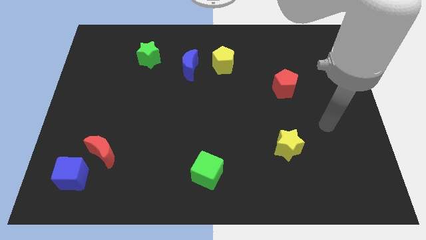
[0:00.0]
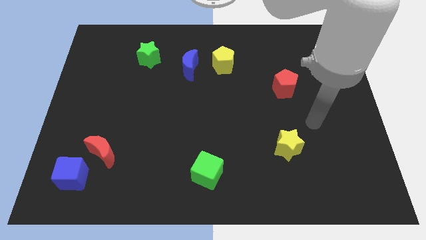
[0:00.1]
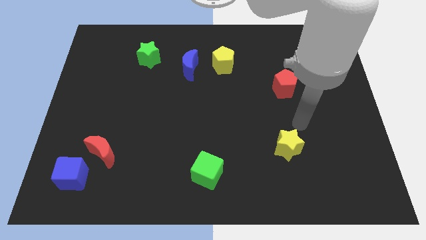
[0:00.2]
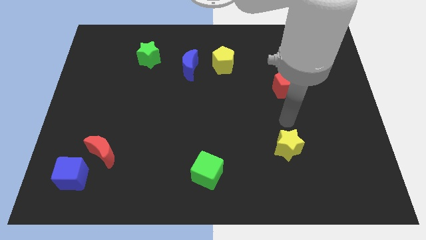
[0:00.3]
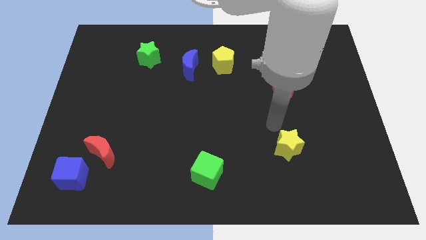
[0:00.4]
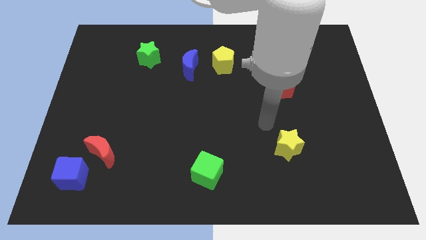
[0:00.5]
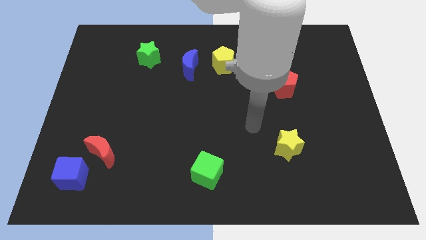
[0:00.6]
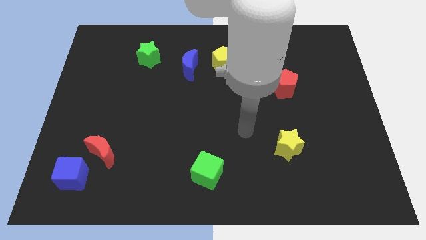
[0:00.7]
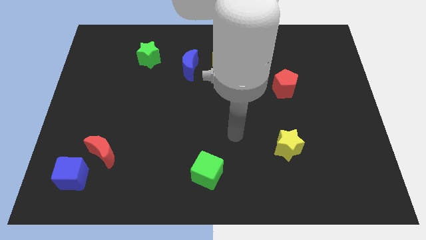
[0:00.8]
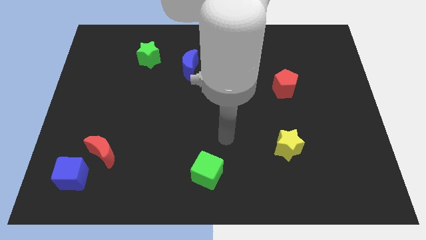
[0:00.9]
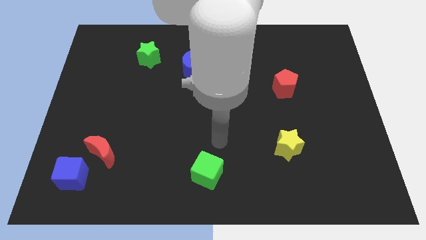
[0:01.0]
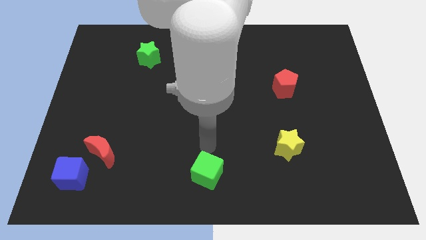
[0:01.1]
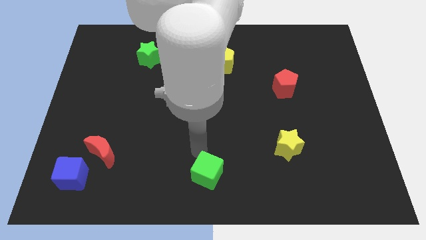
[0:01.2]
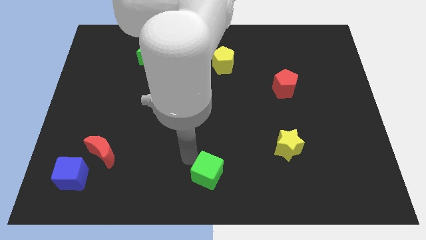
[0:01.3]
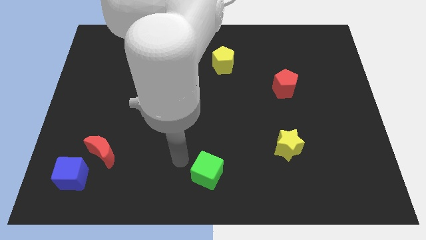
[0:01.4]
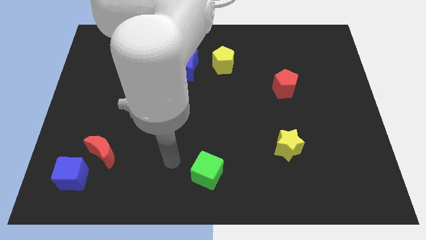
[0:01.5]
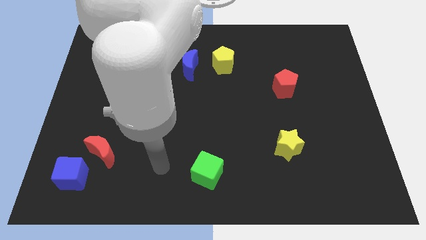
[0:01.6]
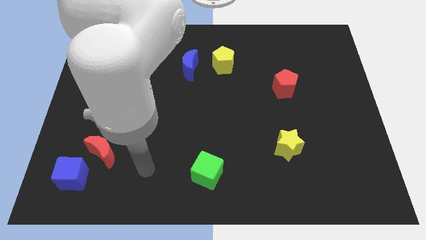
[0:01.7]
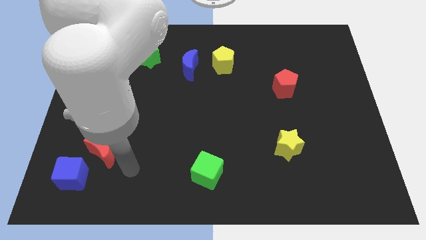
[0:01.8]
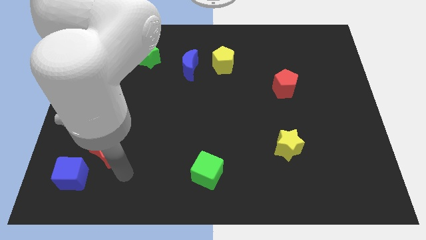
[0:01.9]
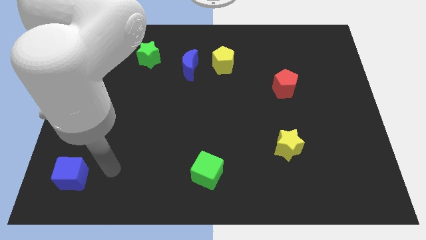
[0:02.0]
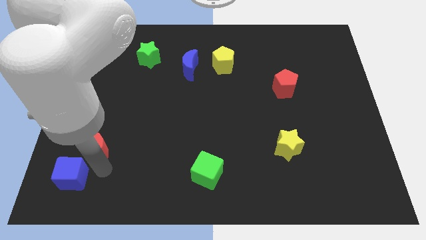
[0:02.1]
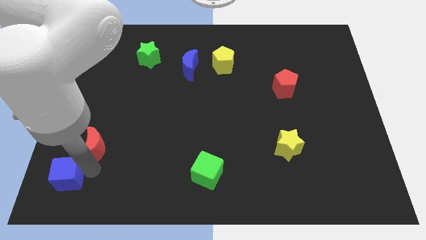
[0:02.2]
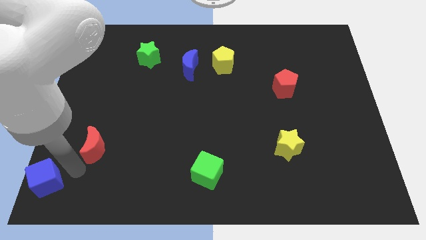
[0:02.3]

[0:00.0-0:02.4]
separate the red moon from the blue cube

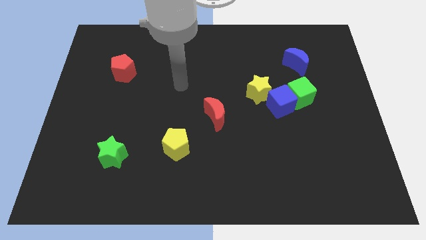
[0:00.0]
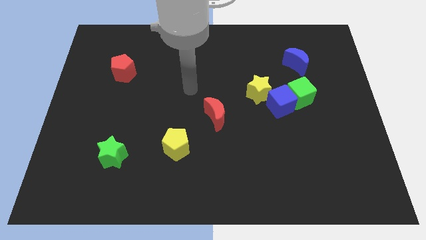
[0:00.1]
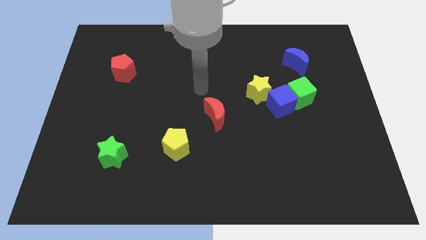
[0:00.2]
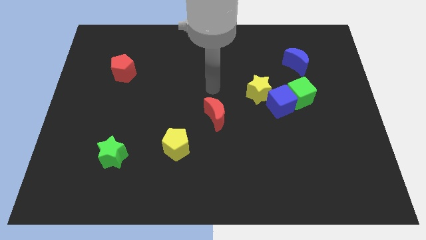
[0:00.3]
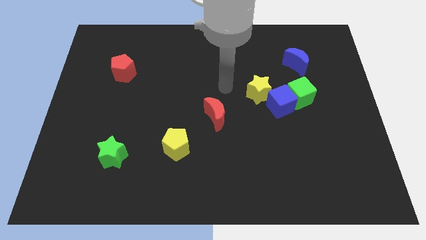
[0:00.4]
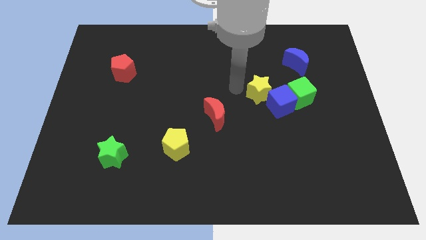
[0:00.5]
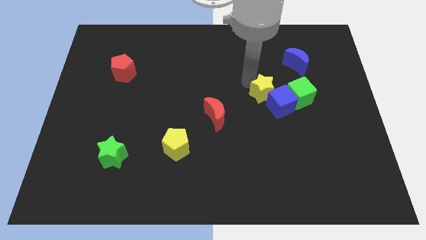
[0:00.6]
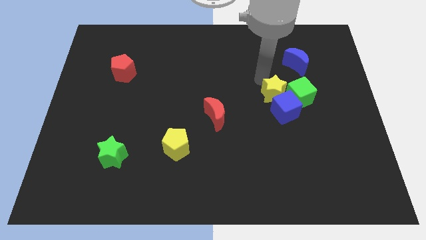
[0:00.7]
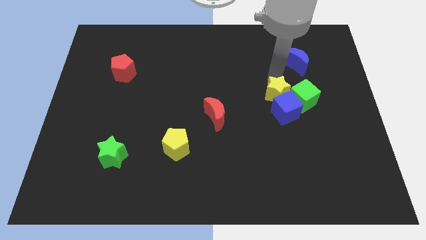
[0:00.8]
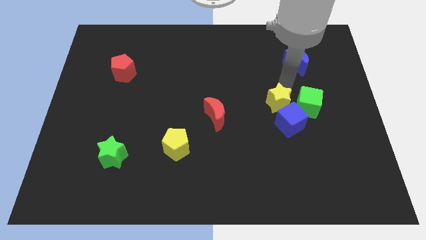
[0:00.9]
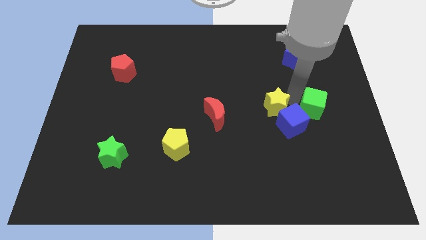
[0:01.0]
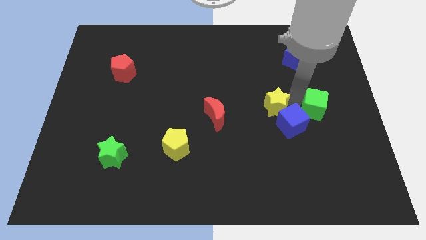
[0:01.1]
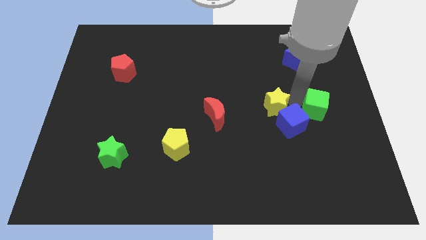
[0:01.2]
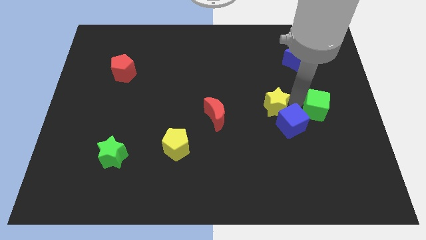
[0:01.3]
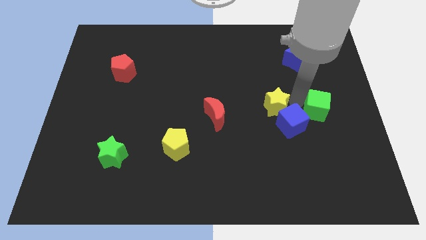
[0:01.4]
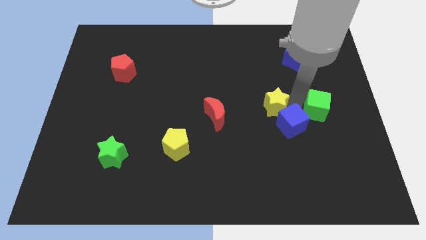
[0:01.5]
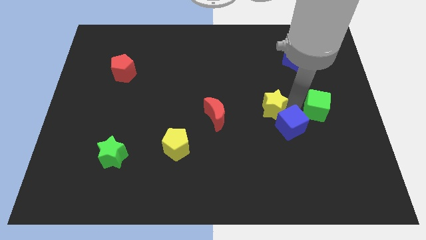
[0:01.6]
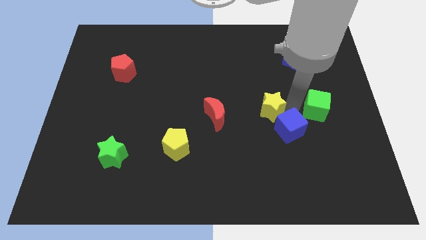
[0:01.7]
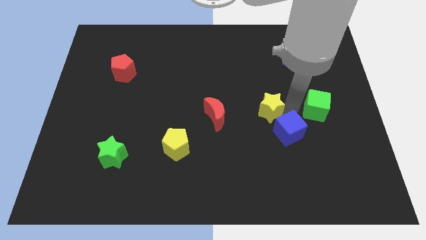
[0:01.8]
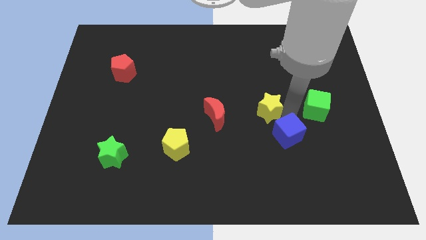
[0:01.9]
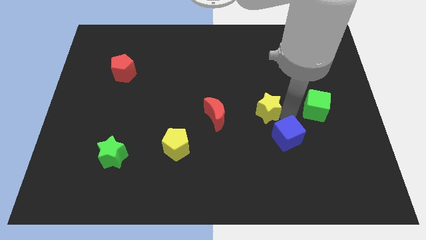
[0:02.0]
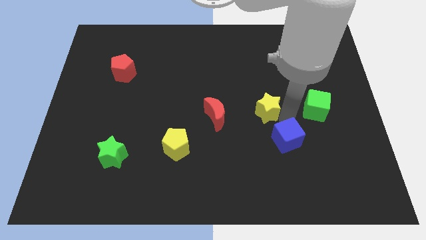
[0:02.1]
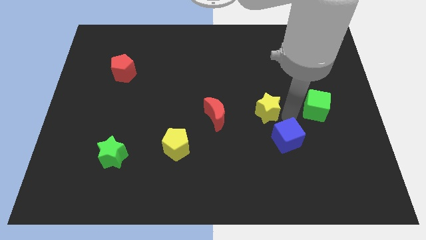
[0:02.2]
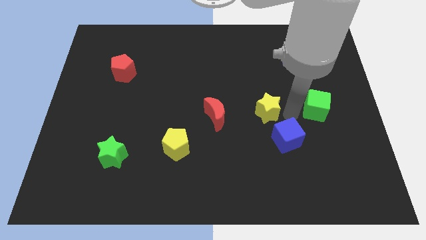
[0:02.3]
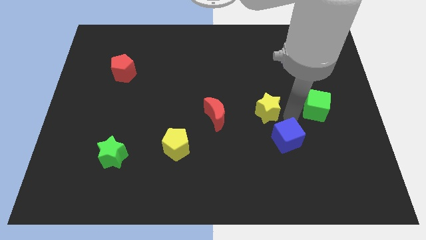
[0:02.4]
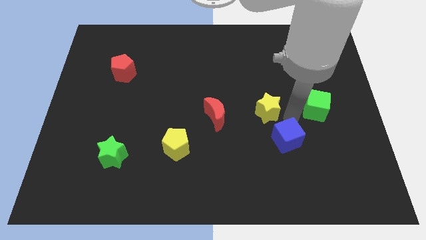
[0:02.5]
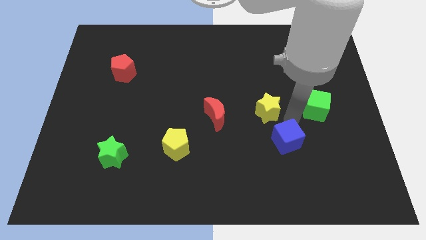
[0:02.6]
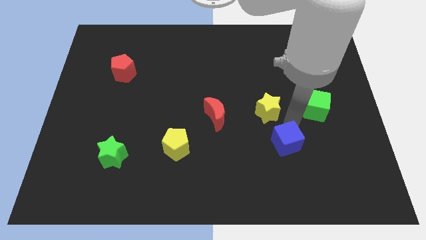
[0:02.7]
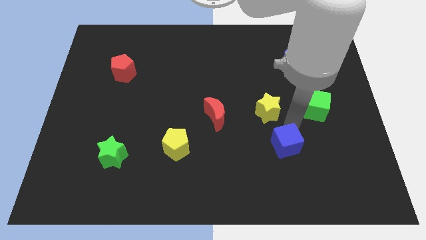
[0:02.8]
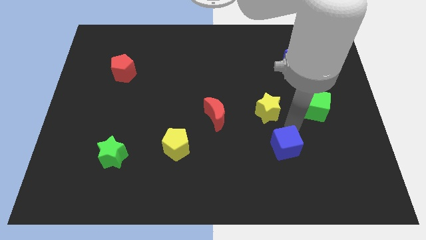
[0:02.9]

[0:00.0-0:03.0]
move the blue cube away from the green cube and yellow star

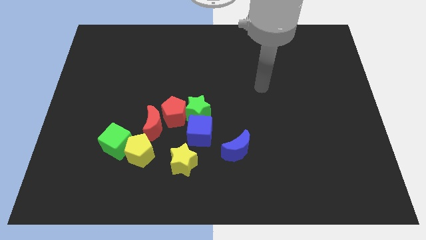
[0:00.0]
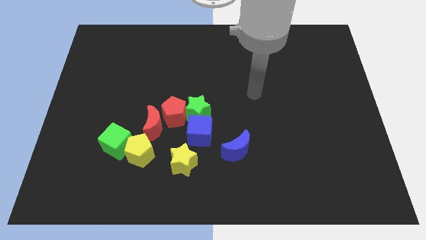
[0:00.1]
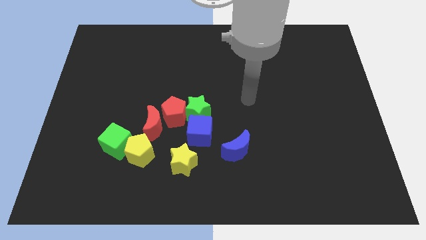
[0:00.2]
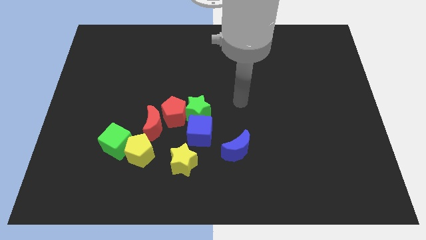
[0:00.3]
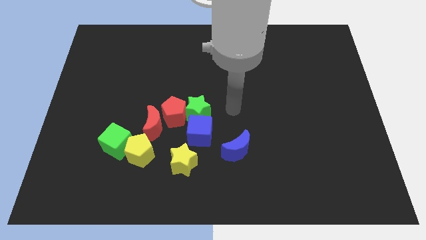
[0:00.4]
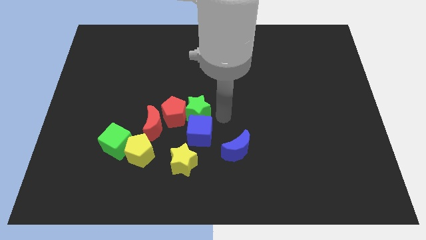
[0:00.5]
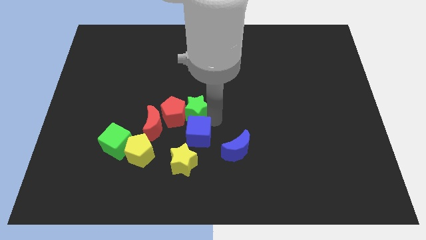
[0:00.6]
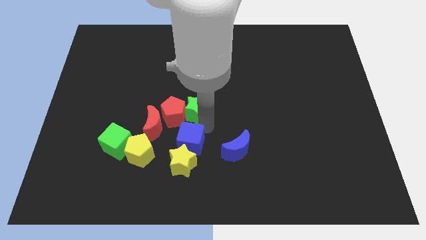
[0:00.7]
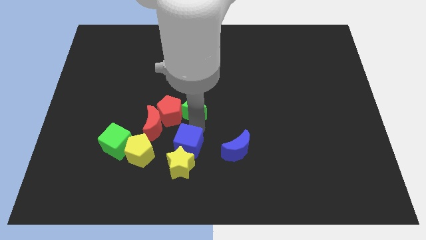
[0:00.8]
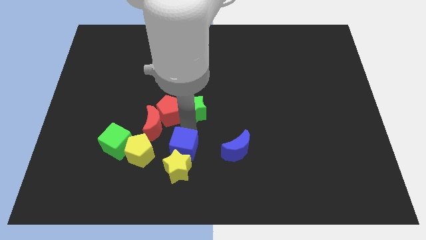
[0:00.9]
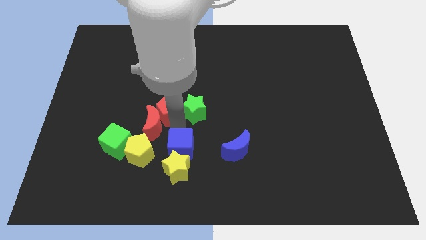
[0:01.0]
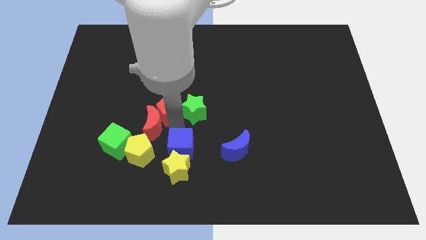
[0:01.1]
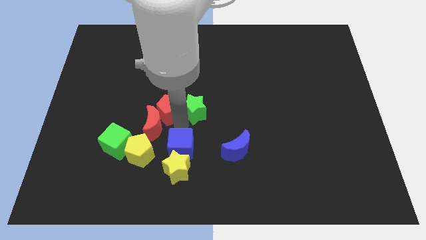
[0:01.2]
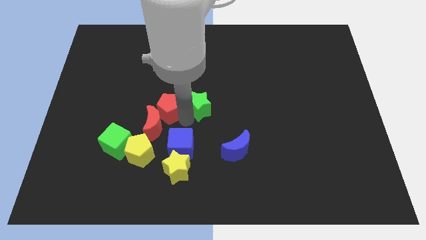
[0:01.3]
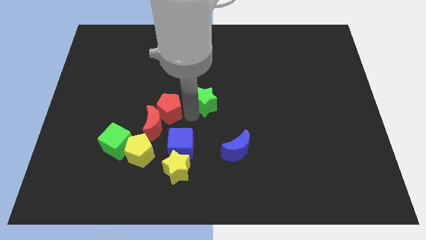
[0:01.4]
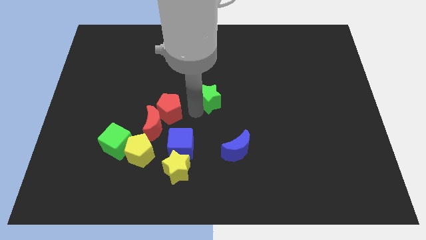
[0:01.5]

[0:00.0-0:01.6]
pull the green star apart from the red pentagon and blue cube

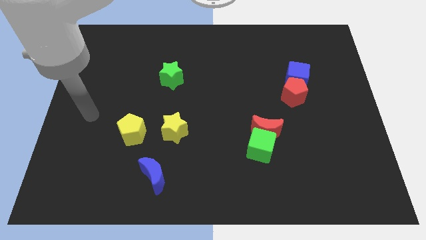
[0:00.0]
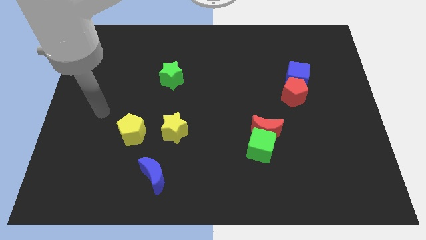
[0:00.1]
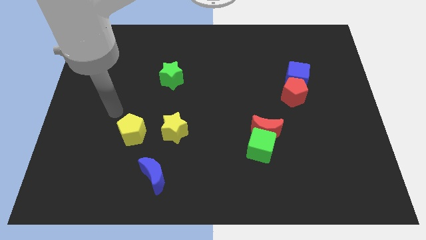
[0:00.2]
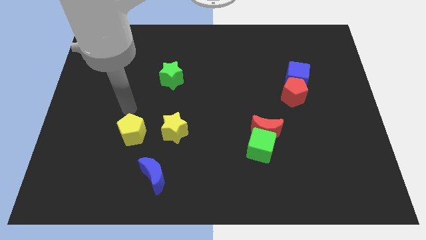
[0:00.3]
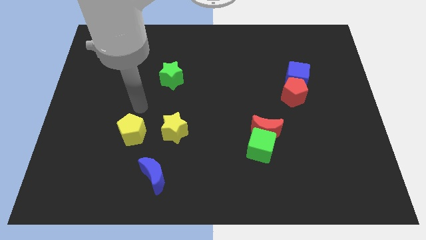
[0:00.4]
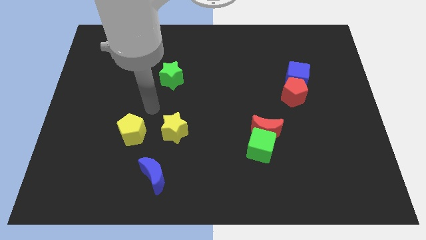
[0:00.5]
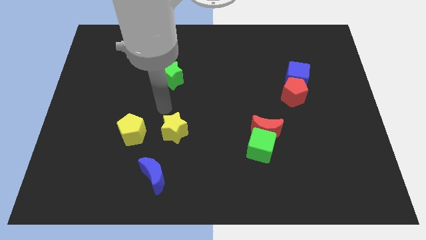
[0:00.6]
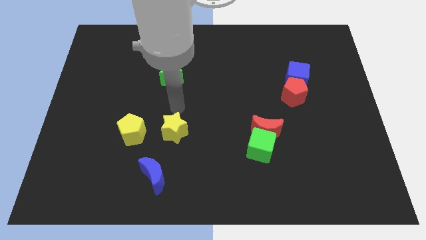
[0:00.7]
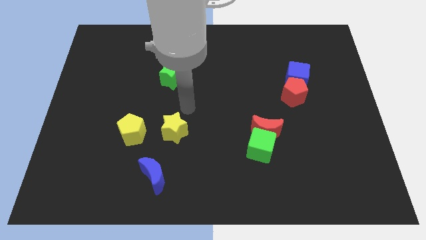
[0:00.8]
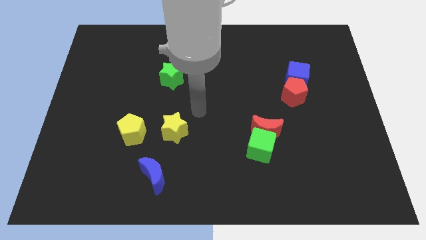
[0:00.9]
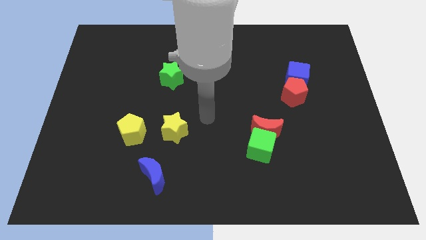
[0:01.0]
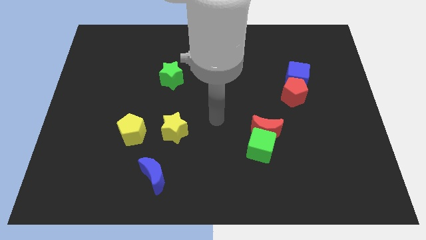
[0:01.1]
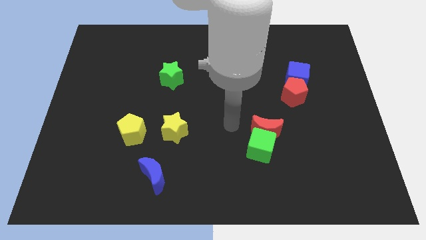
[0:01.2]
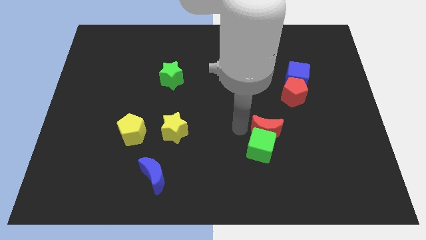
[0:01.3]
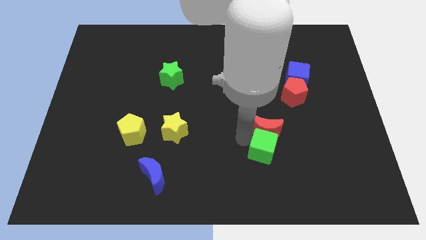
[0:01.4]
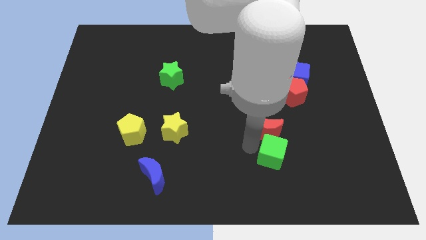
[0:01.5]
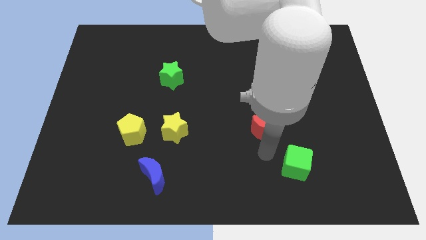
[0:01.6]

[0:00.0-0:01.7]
separate the red moon from the green cube

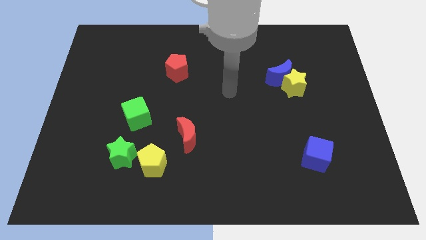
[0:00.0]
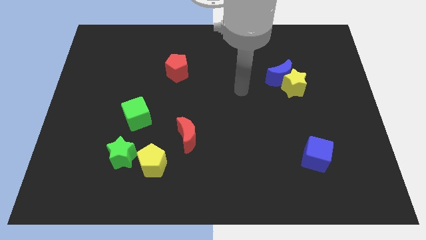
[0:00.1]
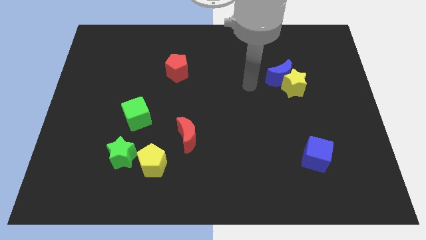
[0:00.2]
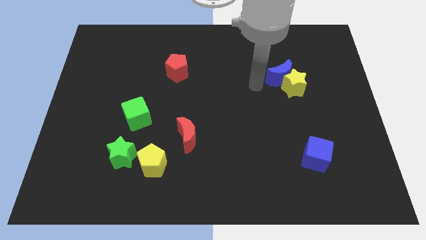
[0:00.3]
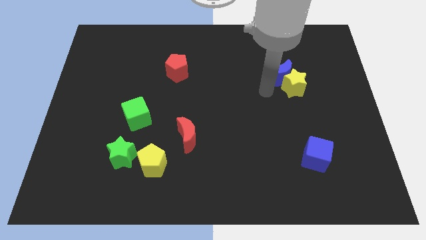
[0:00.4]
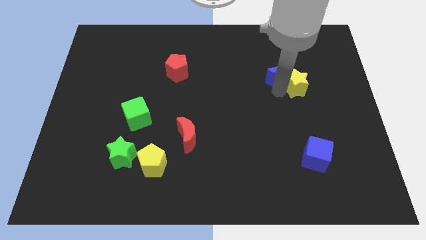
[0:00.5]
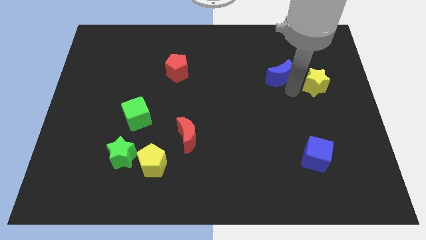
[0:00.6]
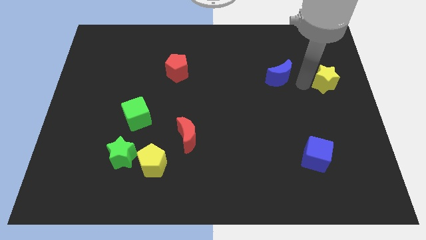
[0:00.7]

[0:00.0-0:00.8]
move the blue moon away from the yellow star
